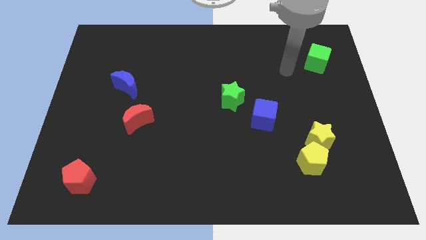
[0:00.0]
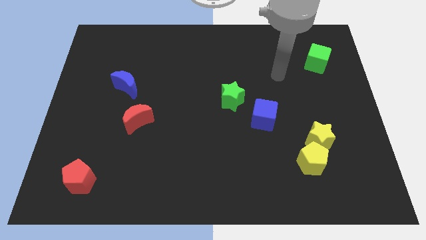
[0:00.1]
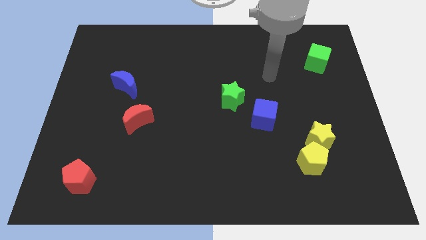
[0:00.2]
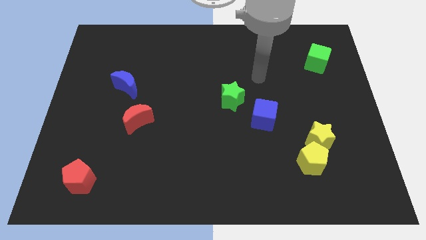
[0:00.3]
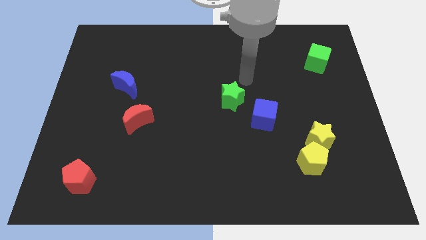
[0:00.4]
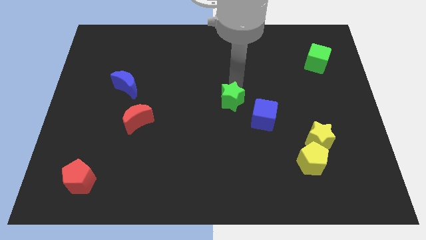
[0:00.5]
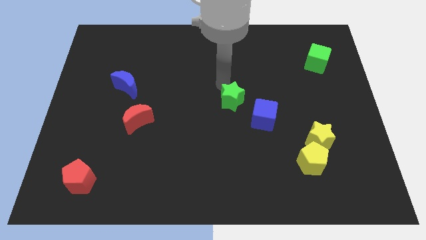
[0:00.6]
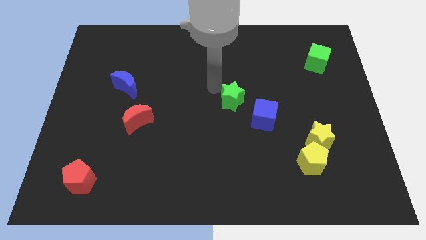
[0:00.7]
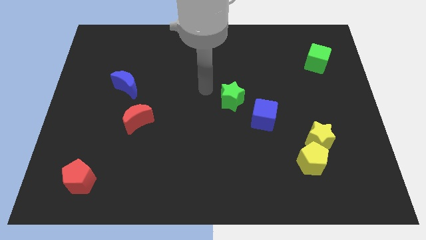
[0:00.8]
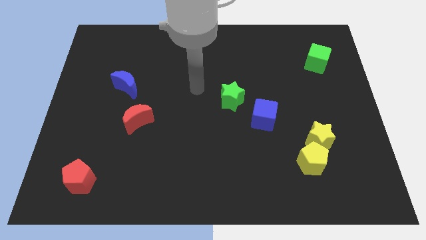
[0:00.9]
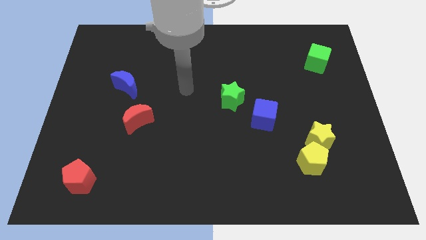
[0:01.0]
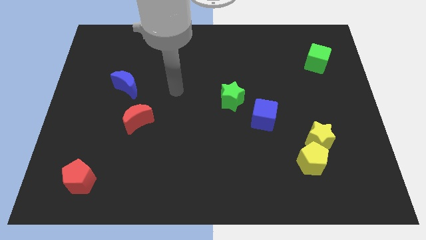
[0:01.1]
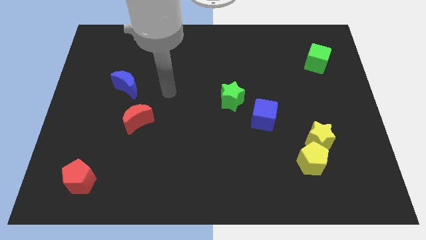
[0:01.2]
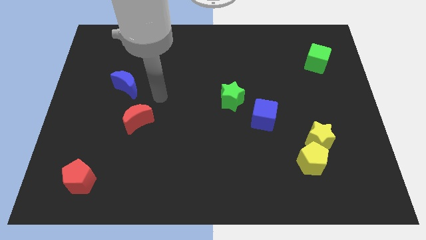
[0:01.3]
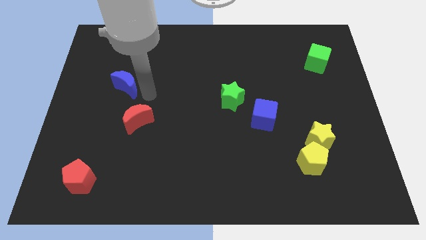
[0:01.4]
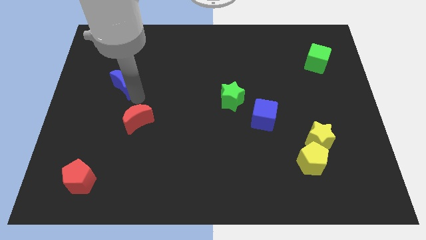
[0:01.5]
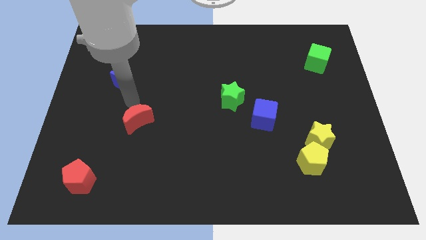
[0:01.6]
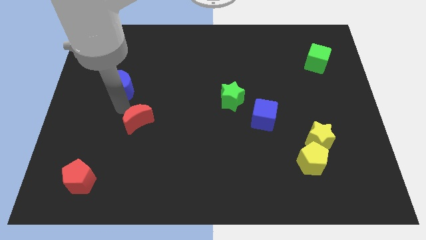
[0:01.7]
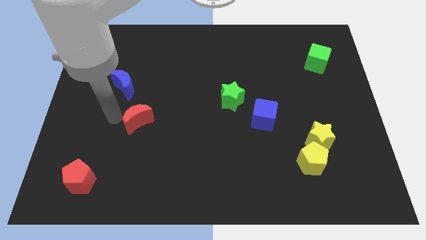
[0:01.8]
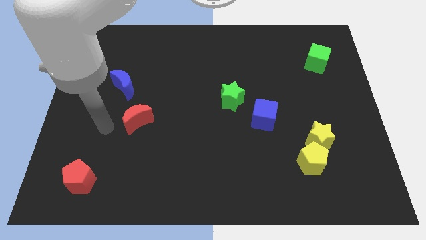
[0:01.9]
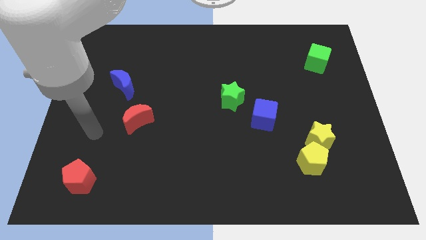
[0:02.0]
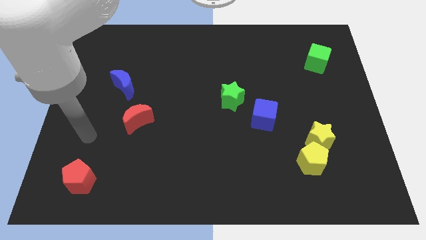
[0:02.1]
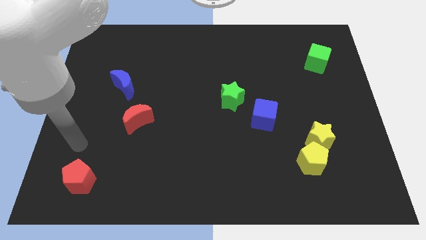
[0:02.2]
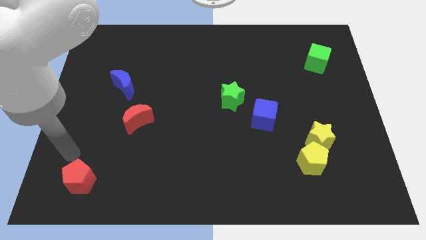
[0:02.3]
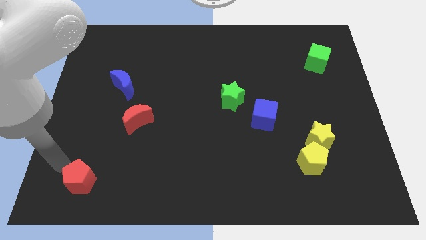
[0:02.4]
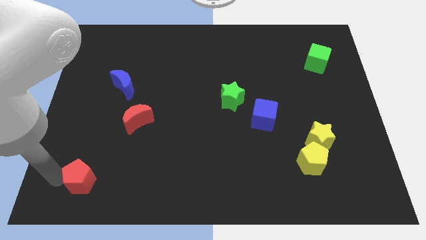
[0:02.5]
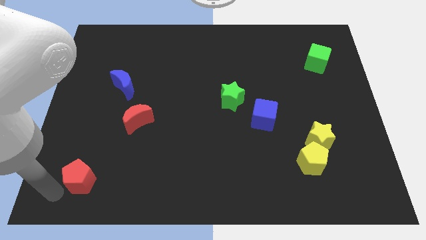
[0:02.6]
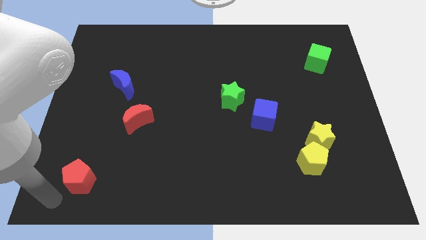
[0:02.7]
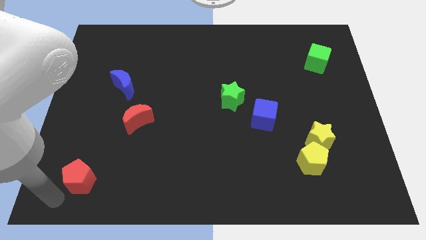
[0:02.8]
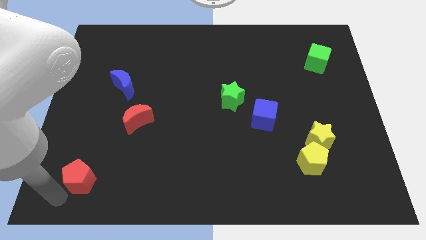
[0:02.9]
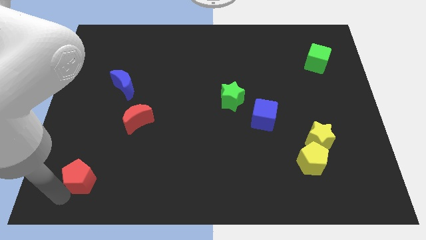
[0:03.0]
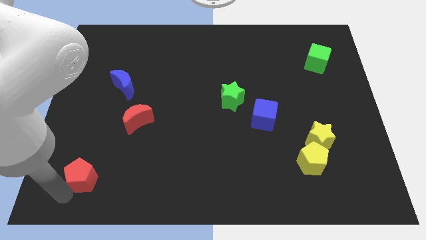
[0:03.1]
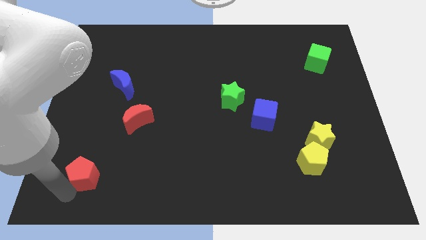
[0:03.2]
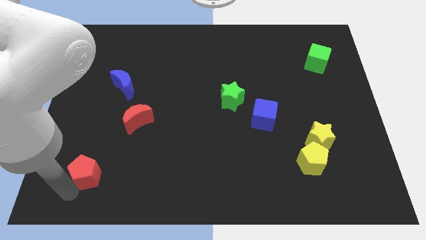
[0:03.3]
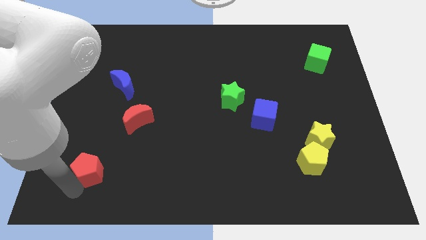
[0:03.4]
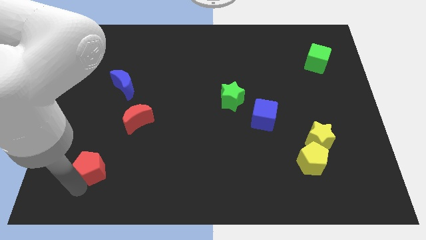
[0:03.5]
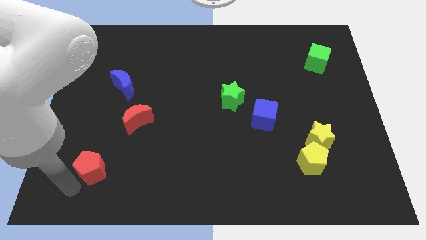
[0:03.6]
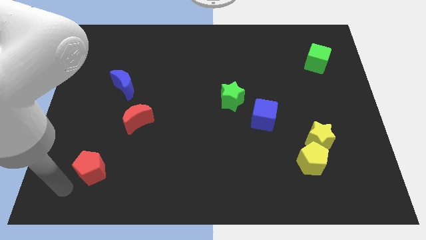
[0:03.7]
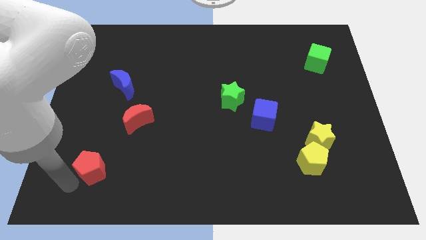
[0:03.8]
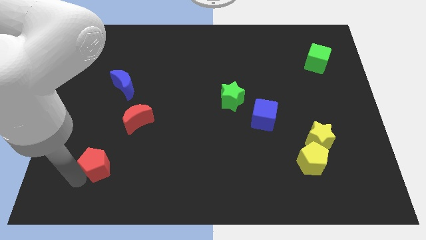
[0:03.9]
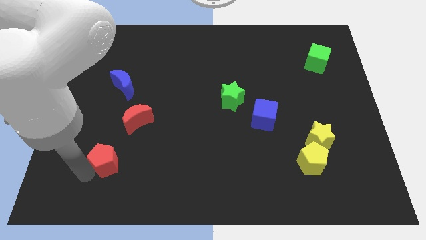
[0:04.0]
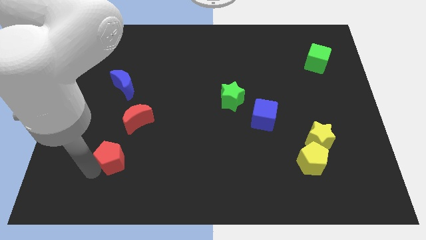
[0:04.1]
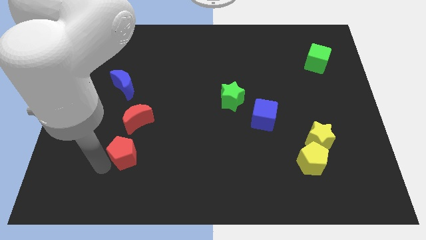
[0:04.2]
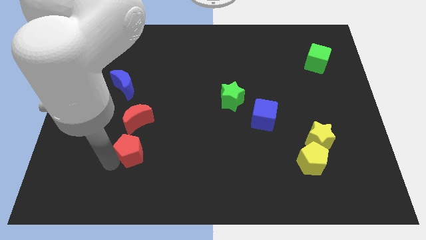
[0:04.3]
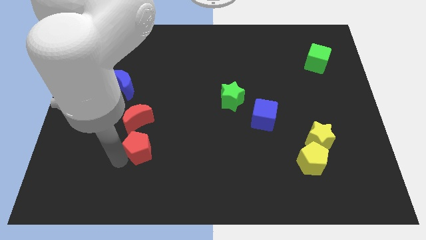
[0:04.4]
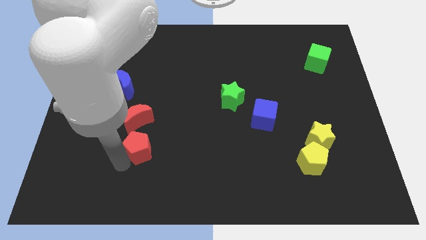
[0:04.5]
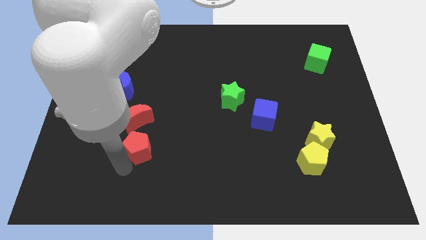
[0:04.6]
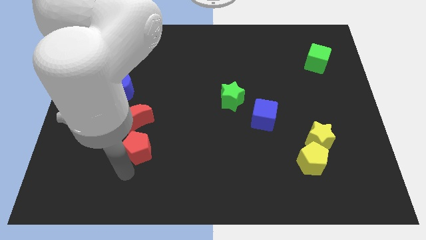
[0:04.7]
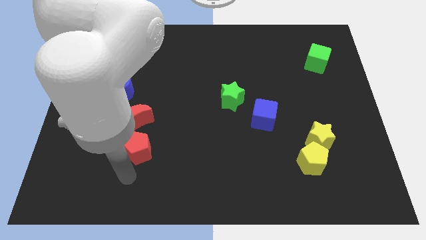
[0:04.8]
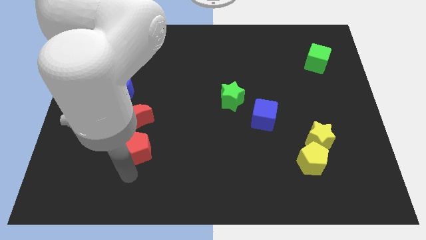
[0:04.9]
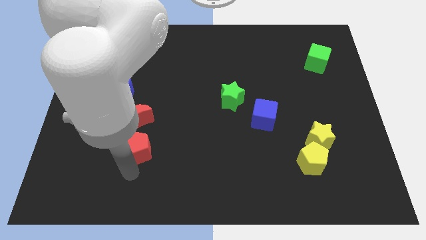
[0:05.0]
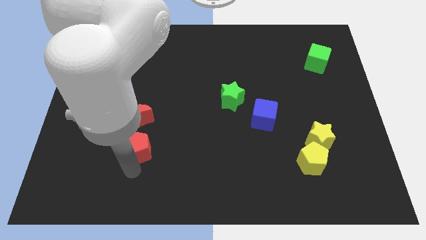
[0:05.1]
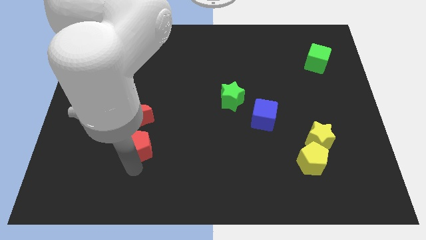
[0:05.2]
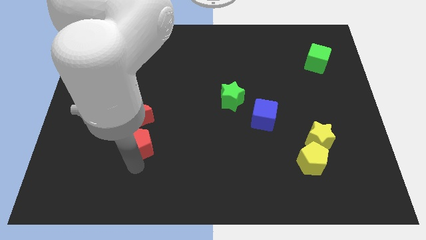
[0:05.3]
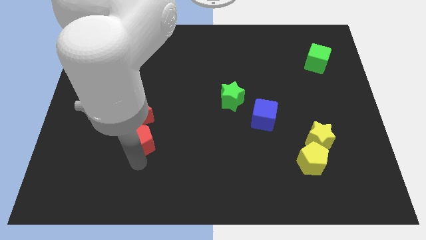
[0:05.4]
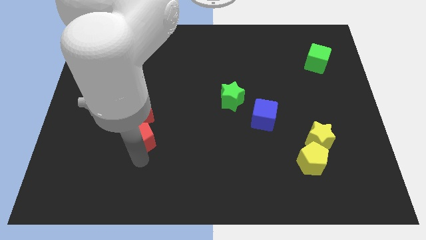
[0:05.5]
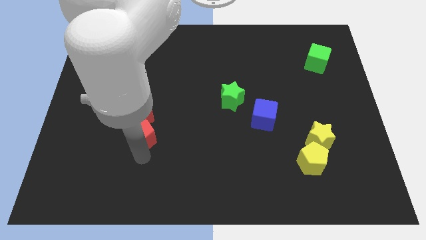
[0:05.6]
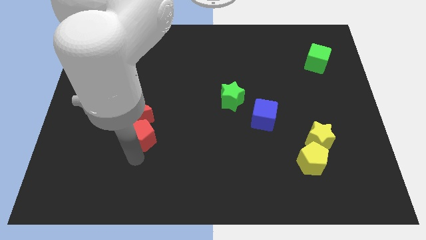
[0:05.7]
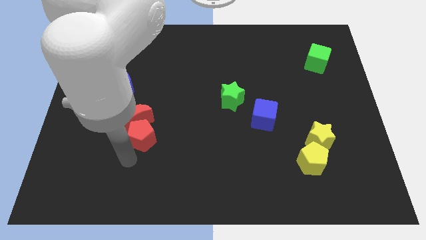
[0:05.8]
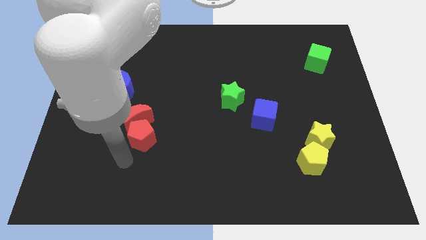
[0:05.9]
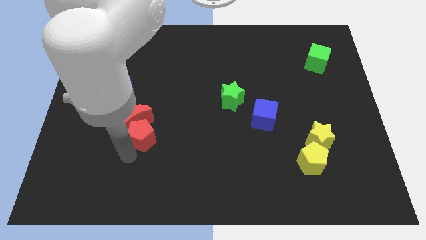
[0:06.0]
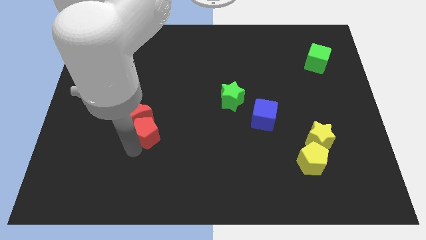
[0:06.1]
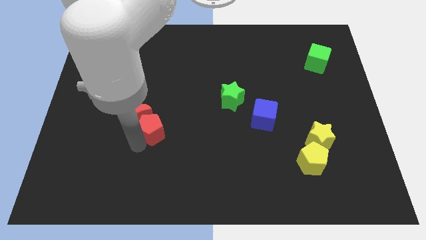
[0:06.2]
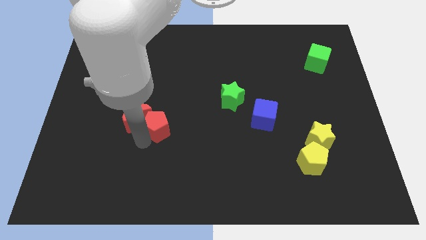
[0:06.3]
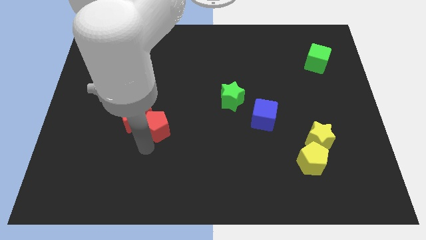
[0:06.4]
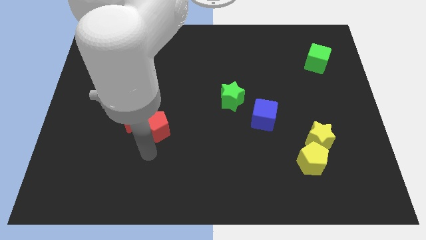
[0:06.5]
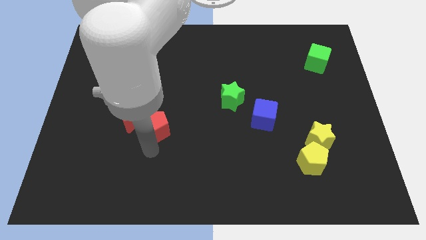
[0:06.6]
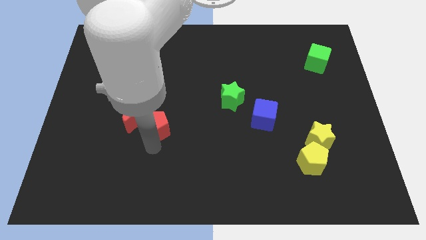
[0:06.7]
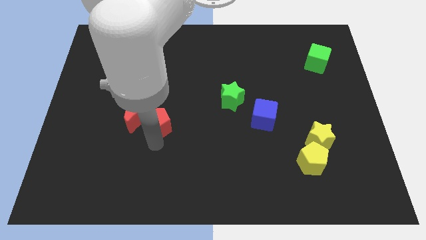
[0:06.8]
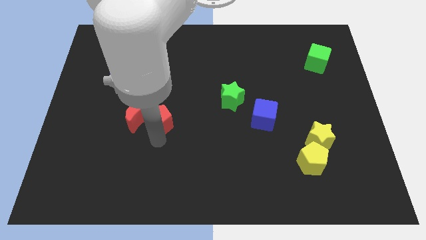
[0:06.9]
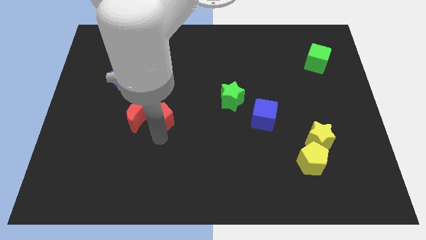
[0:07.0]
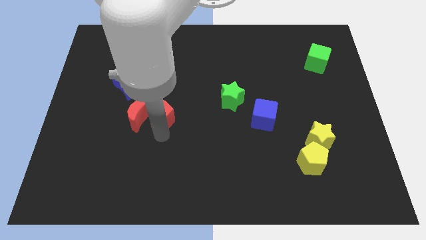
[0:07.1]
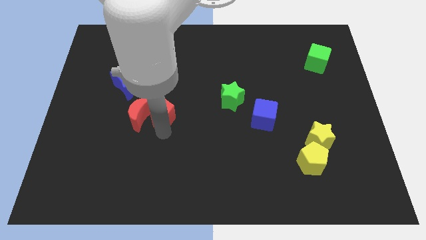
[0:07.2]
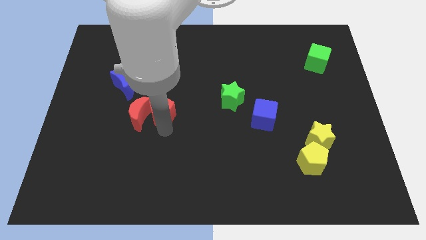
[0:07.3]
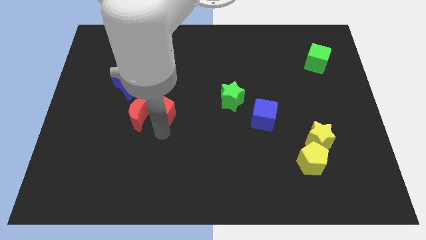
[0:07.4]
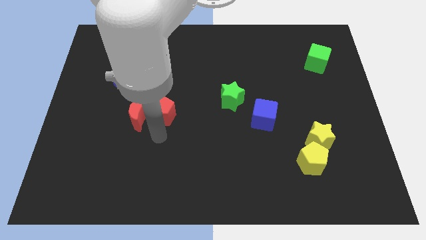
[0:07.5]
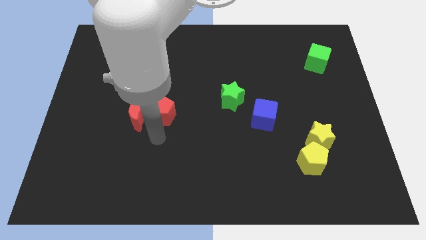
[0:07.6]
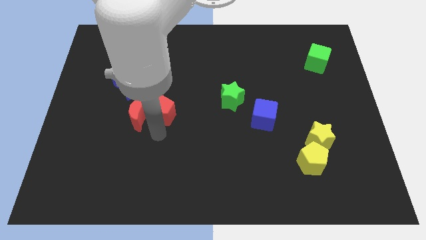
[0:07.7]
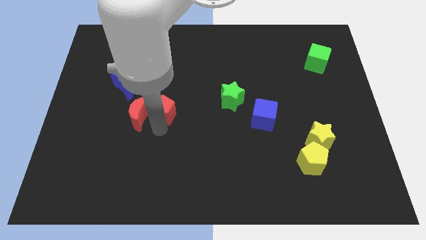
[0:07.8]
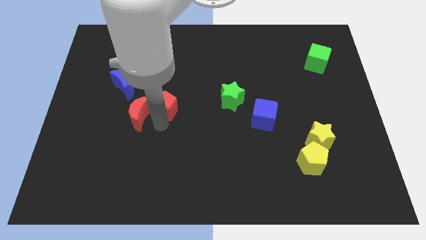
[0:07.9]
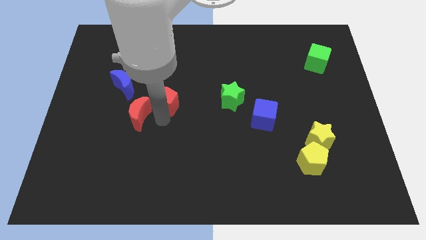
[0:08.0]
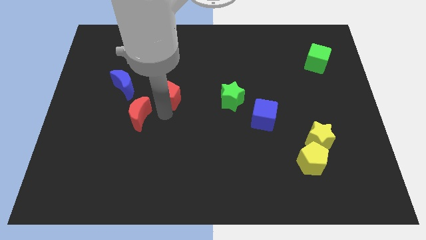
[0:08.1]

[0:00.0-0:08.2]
push the red pentagon right of the blue moon
